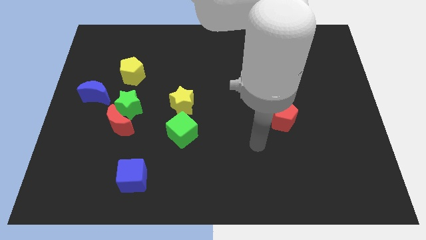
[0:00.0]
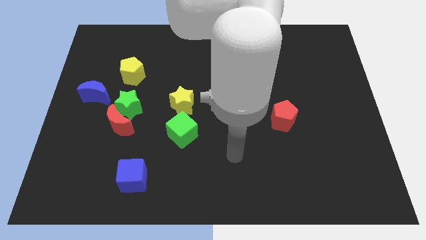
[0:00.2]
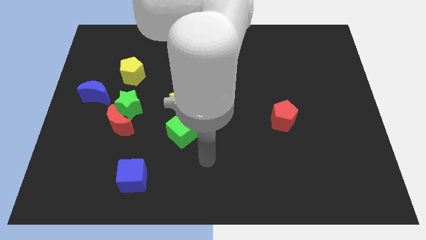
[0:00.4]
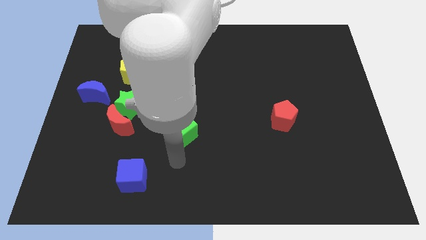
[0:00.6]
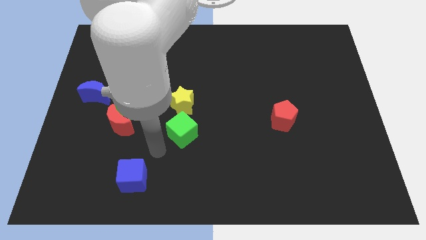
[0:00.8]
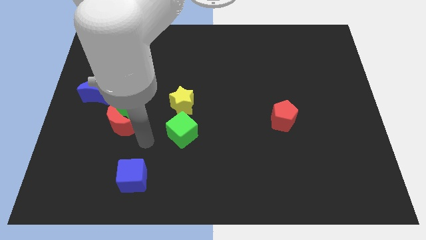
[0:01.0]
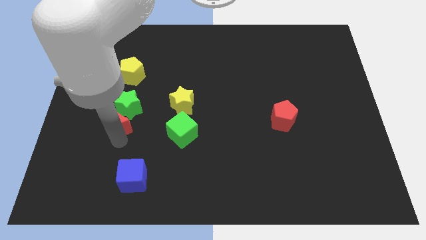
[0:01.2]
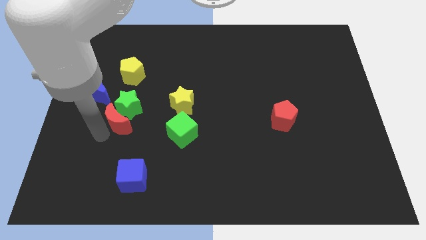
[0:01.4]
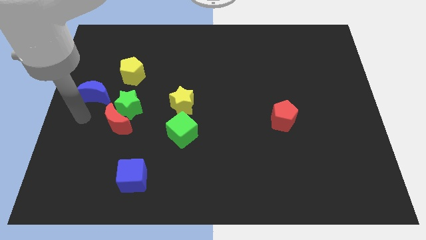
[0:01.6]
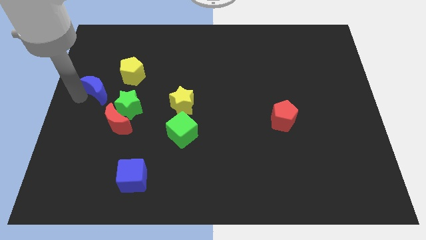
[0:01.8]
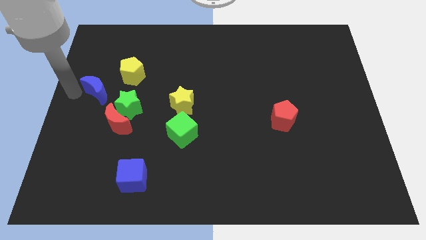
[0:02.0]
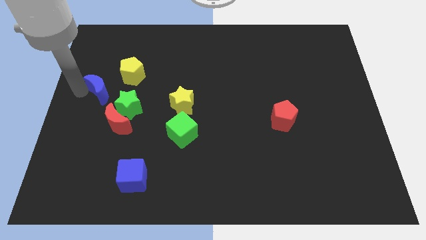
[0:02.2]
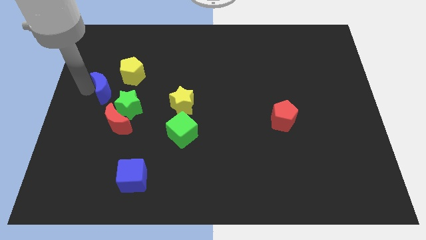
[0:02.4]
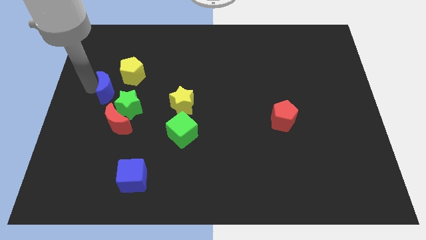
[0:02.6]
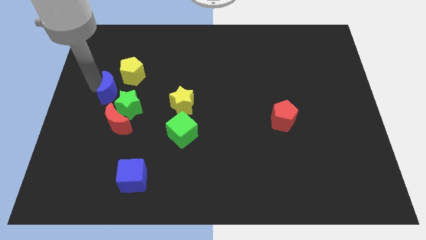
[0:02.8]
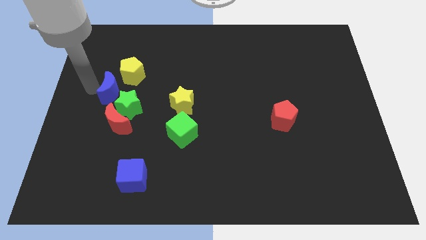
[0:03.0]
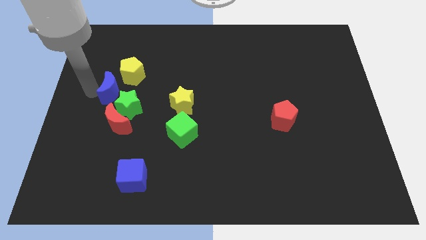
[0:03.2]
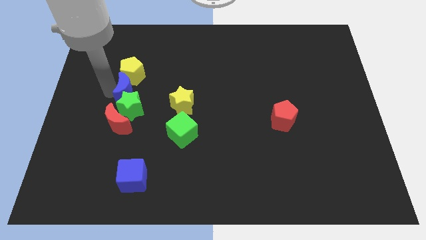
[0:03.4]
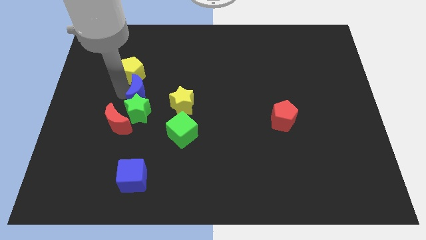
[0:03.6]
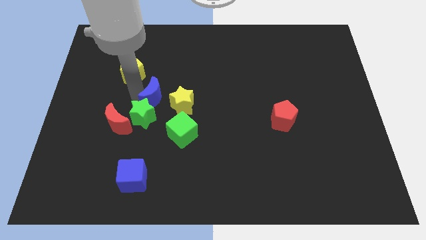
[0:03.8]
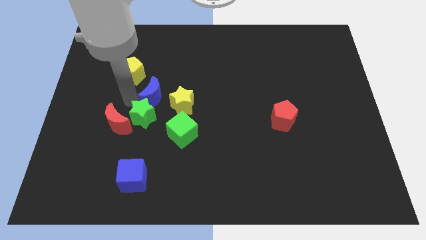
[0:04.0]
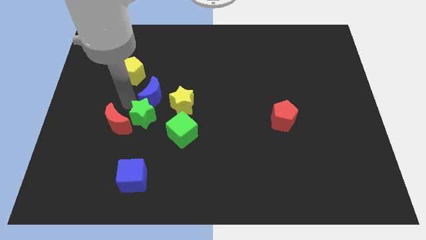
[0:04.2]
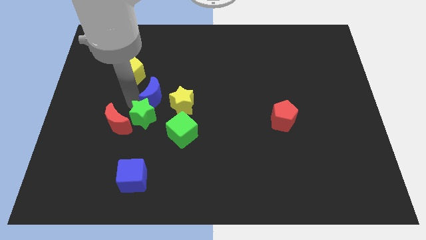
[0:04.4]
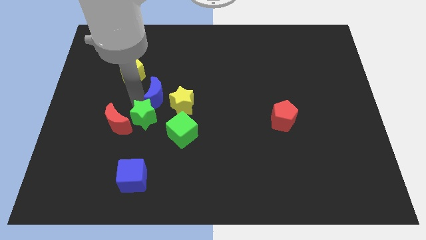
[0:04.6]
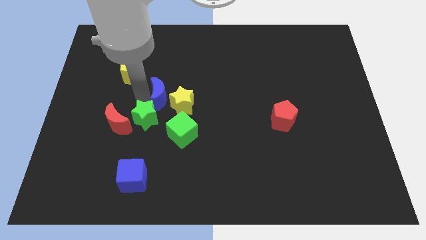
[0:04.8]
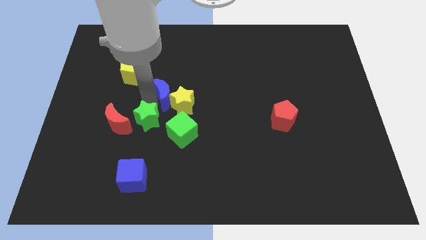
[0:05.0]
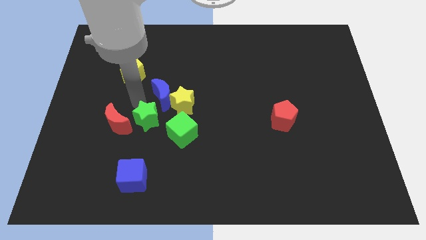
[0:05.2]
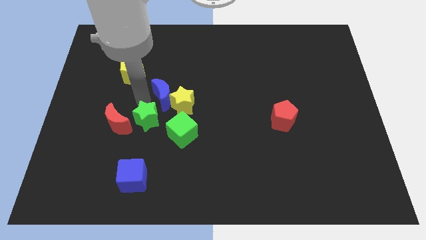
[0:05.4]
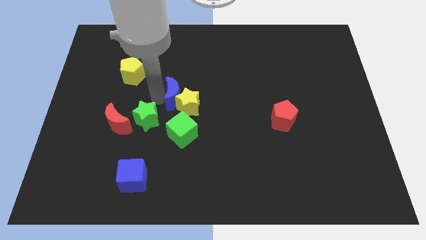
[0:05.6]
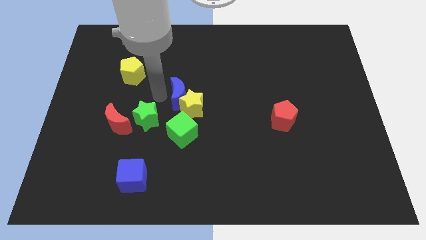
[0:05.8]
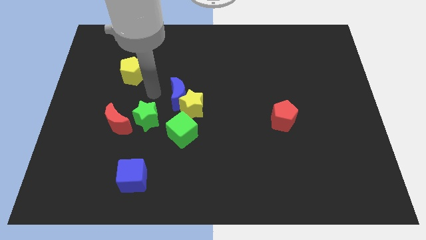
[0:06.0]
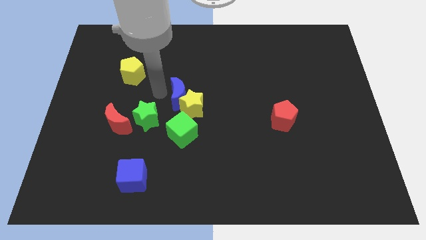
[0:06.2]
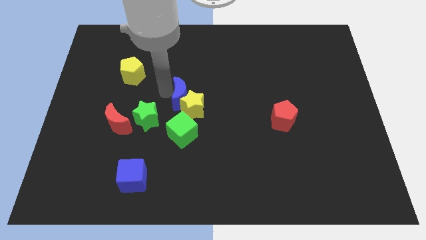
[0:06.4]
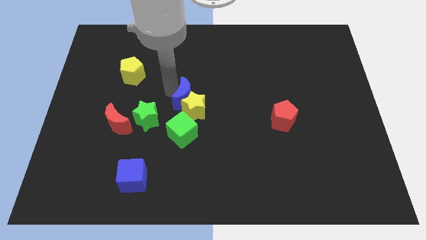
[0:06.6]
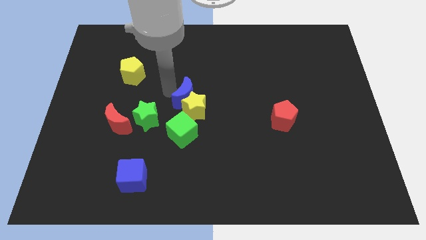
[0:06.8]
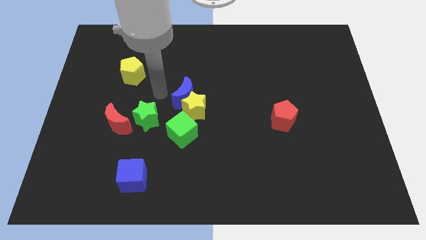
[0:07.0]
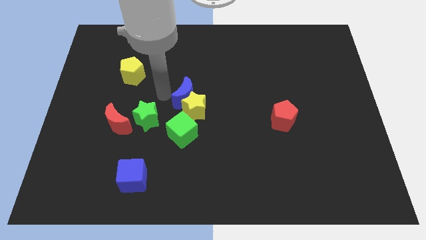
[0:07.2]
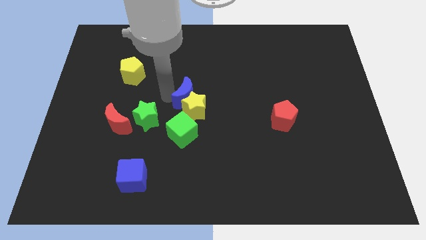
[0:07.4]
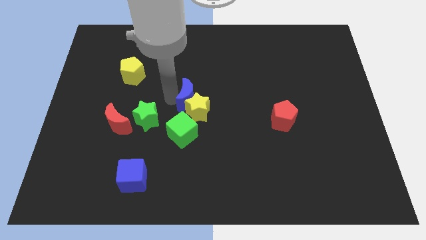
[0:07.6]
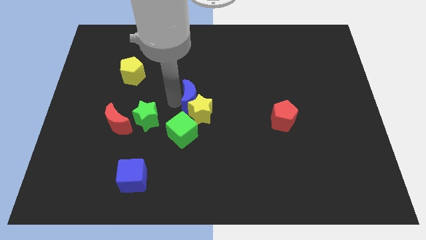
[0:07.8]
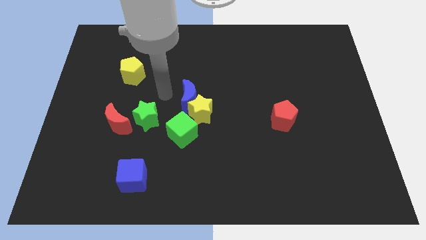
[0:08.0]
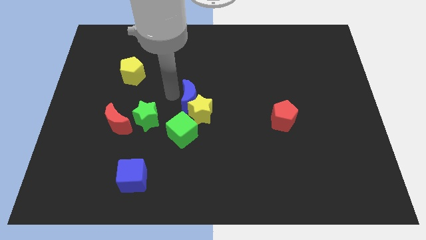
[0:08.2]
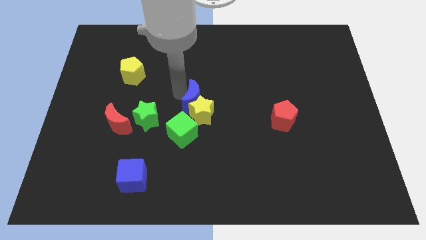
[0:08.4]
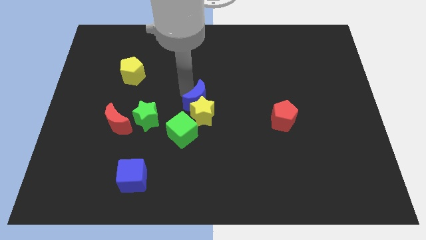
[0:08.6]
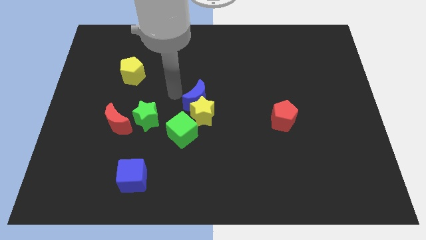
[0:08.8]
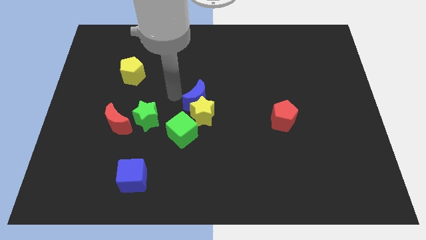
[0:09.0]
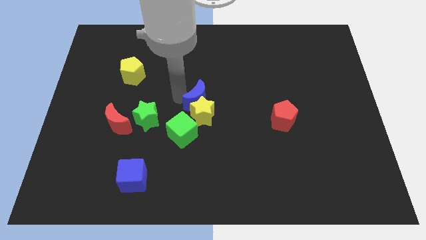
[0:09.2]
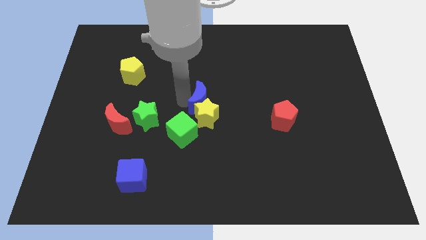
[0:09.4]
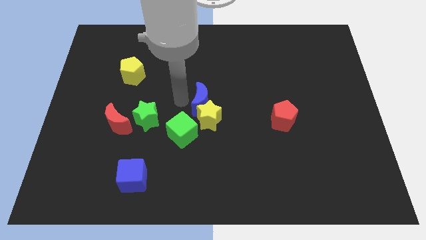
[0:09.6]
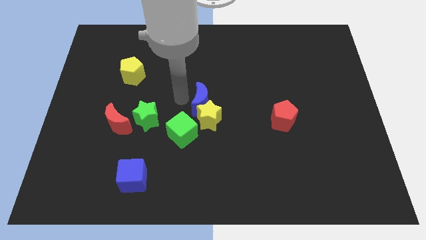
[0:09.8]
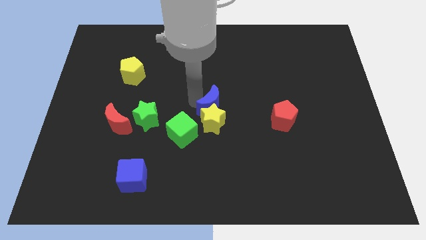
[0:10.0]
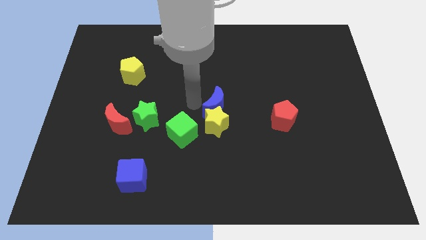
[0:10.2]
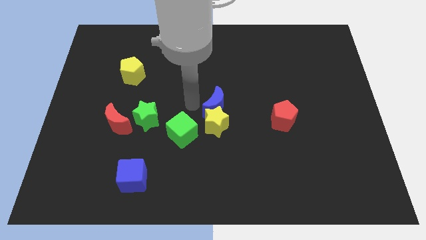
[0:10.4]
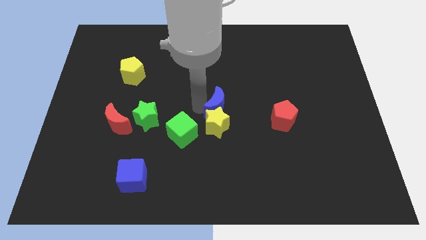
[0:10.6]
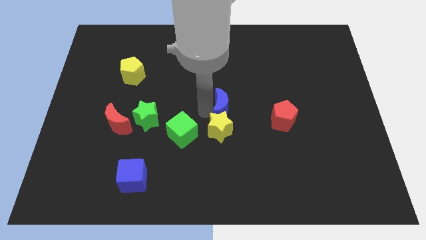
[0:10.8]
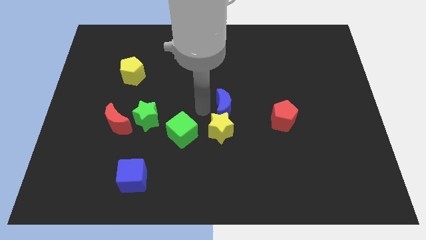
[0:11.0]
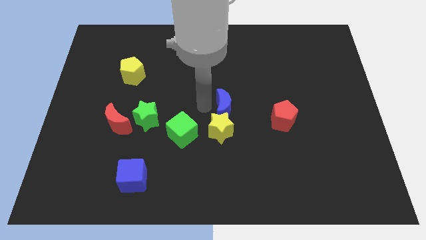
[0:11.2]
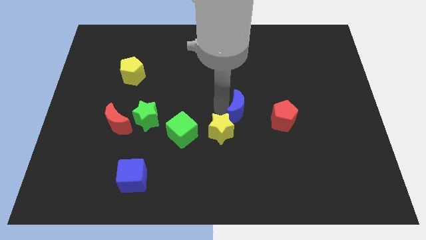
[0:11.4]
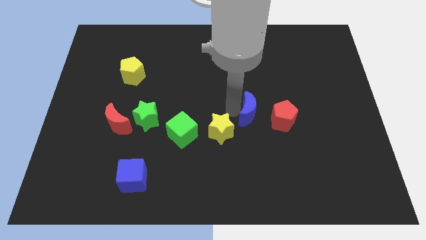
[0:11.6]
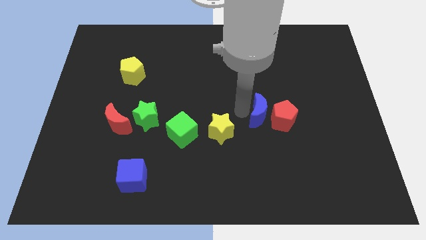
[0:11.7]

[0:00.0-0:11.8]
move the blue moon to the red pentagon
